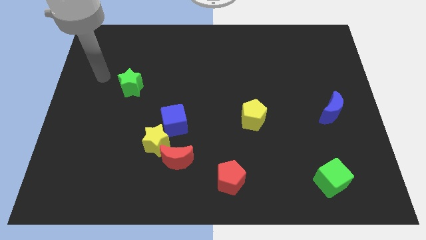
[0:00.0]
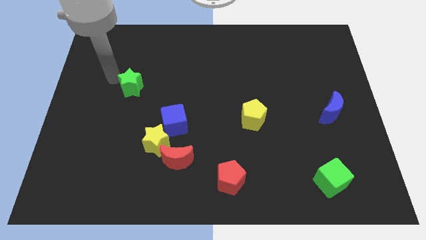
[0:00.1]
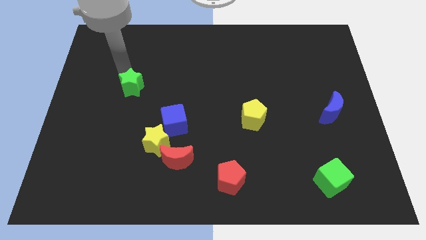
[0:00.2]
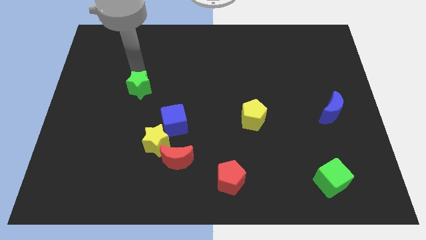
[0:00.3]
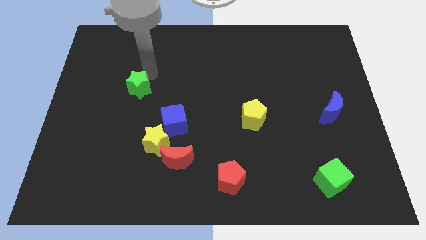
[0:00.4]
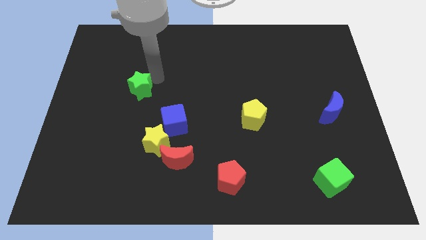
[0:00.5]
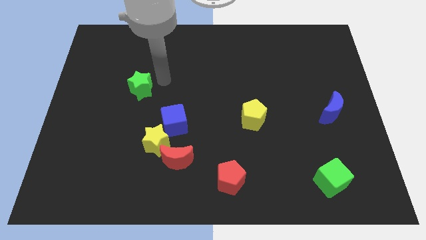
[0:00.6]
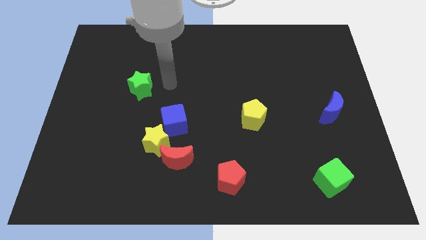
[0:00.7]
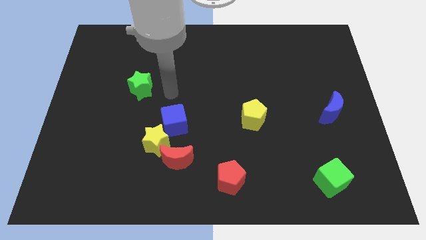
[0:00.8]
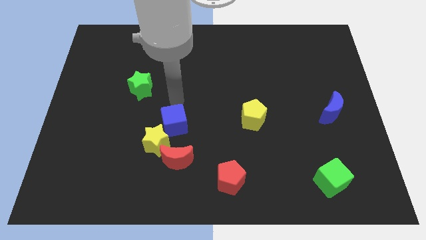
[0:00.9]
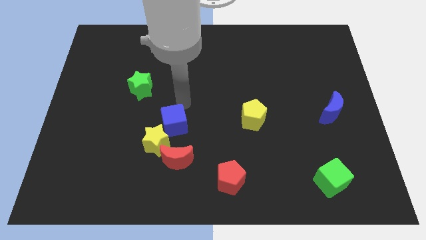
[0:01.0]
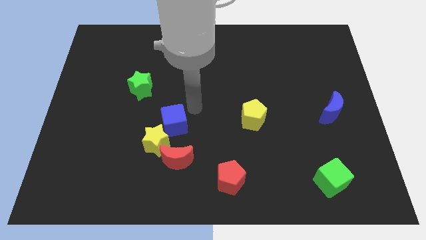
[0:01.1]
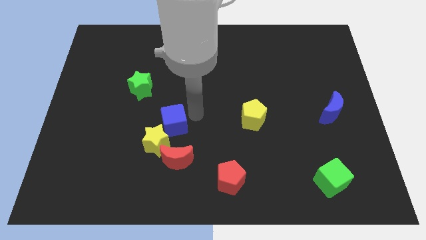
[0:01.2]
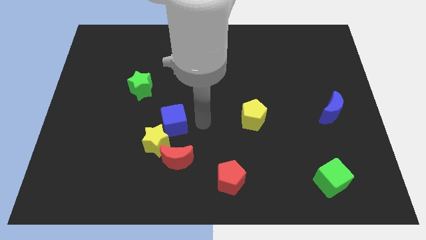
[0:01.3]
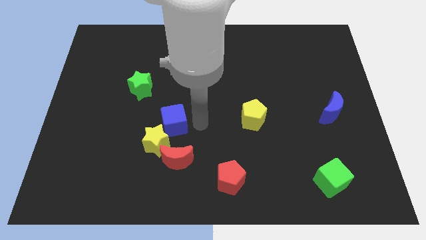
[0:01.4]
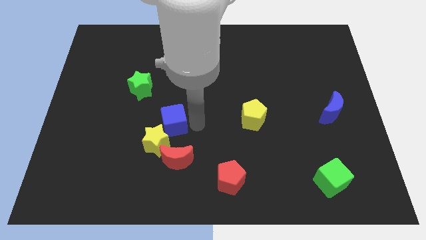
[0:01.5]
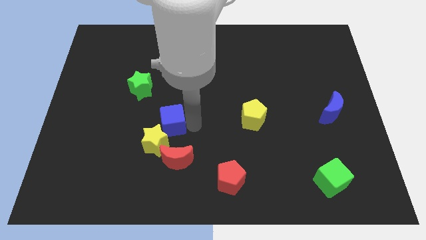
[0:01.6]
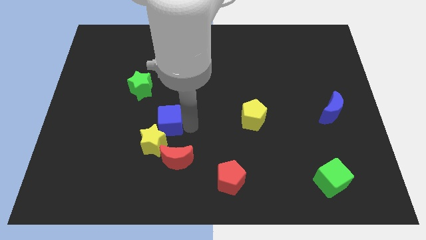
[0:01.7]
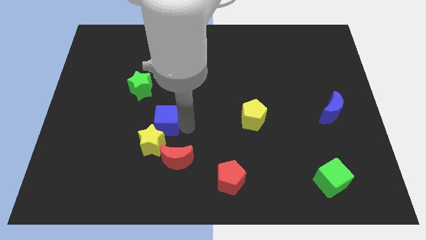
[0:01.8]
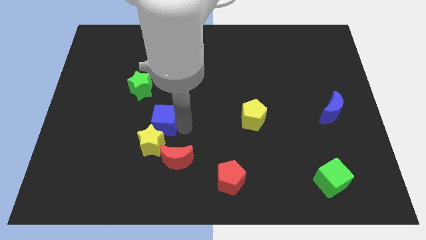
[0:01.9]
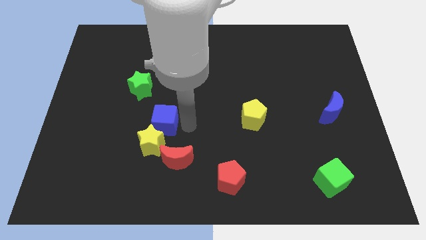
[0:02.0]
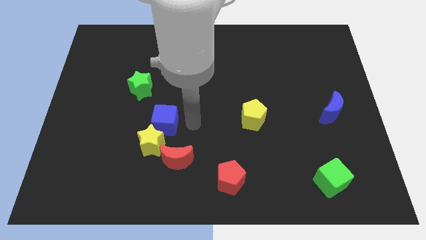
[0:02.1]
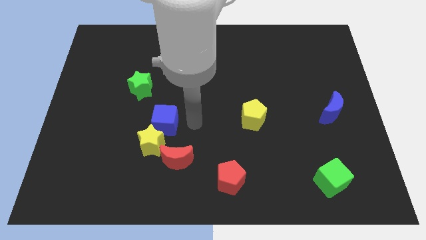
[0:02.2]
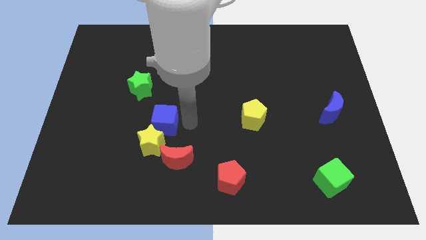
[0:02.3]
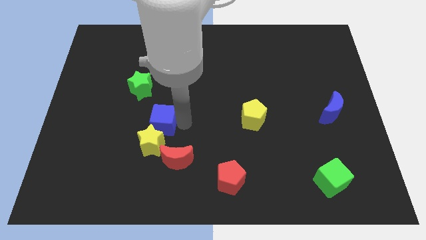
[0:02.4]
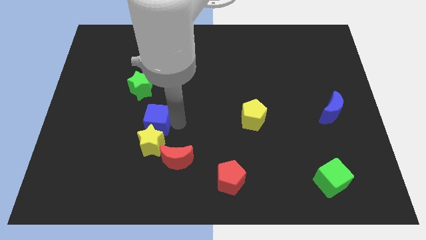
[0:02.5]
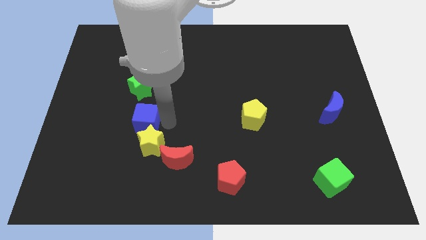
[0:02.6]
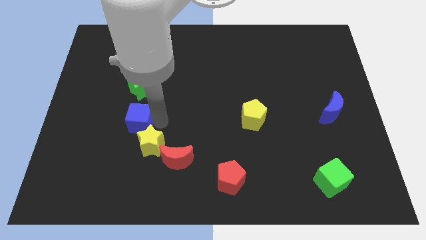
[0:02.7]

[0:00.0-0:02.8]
slightly move the blue cube to the left

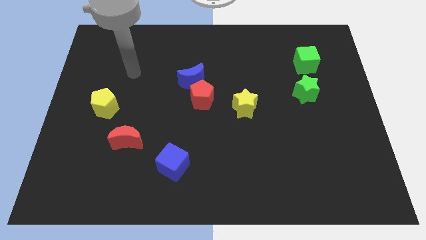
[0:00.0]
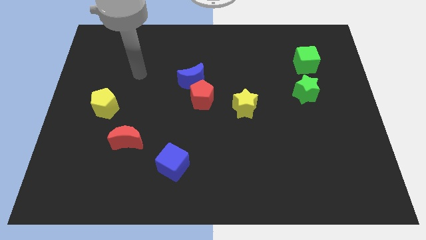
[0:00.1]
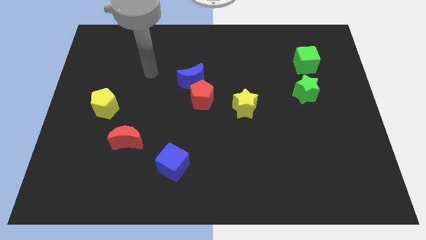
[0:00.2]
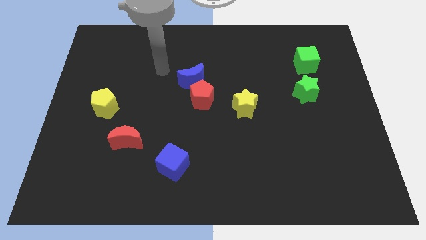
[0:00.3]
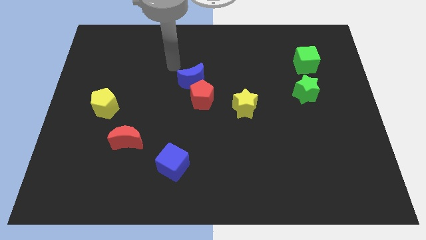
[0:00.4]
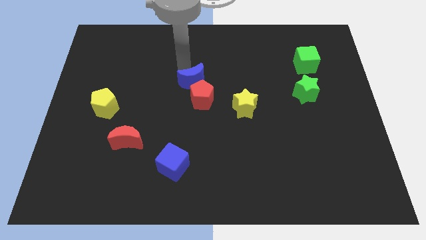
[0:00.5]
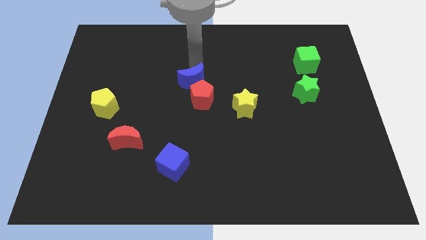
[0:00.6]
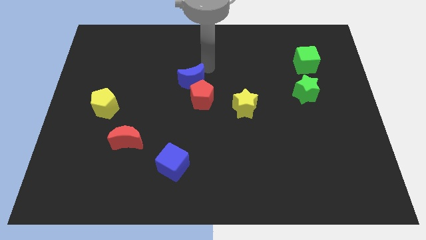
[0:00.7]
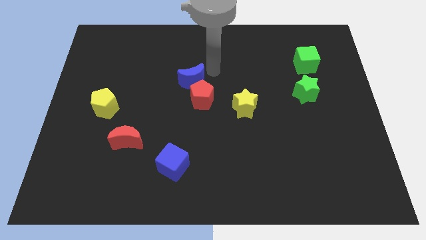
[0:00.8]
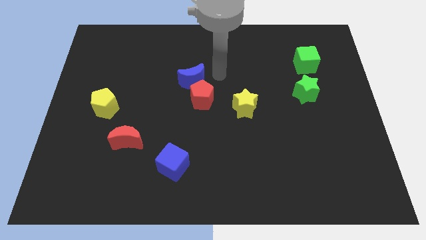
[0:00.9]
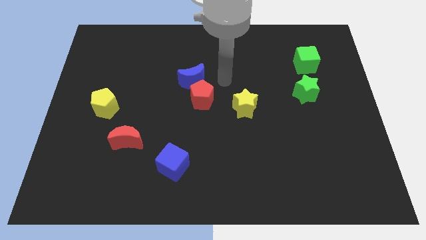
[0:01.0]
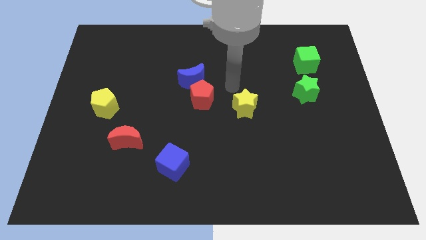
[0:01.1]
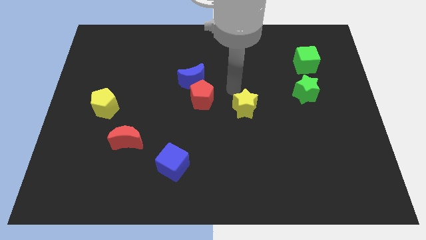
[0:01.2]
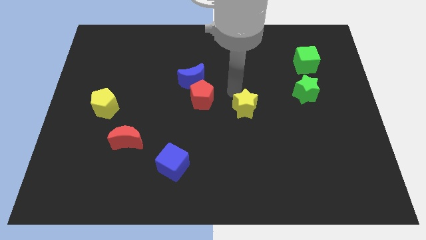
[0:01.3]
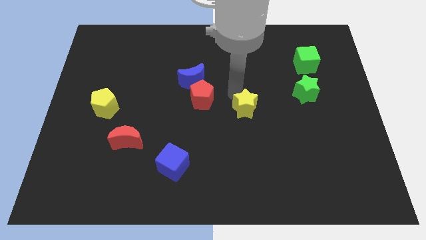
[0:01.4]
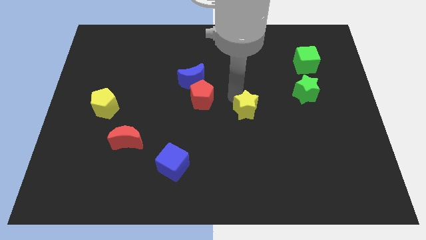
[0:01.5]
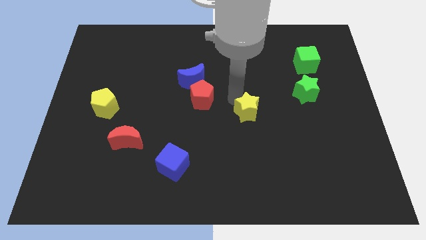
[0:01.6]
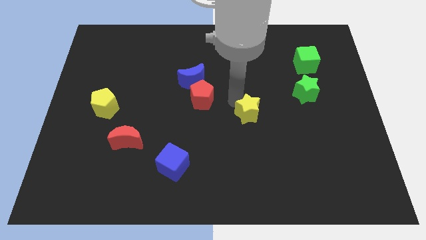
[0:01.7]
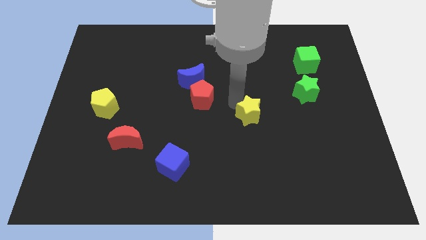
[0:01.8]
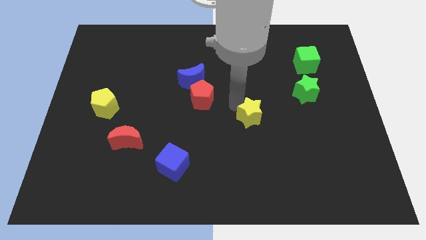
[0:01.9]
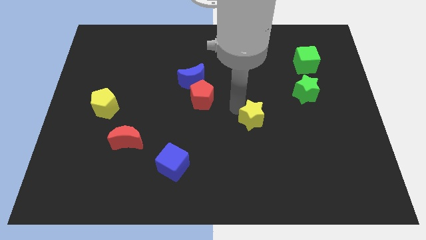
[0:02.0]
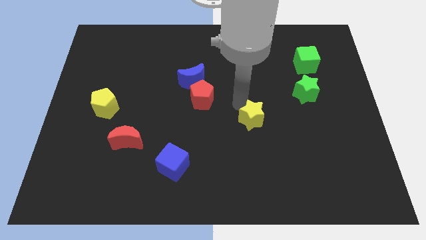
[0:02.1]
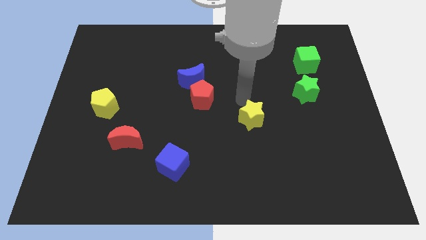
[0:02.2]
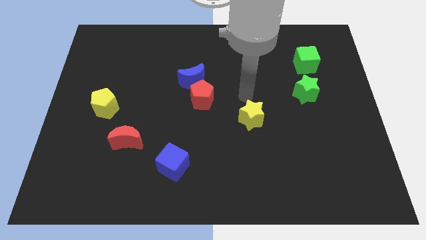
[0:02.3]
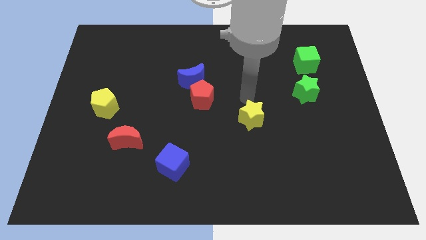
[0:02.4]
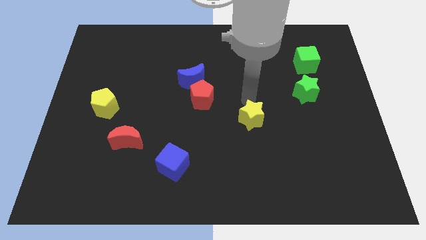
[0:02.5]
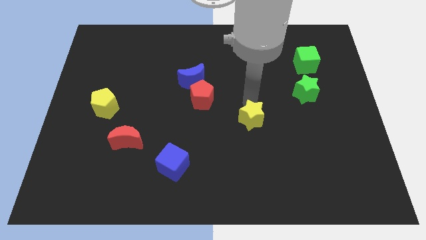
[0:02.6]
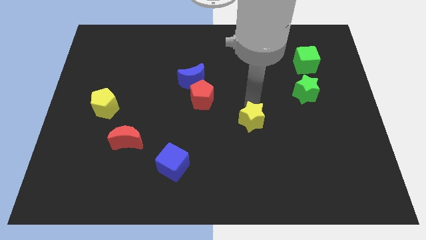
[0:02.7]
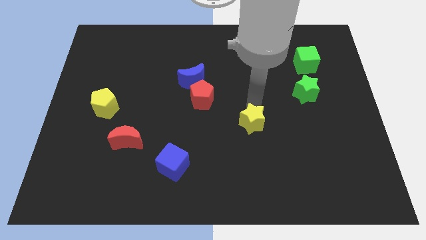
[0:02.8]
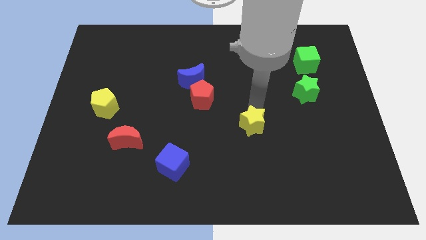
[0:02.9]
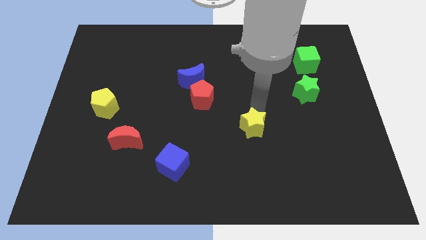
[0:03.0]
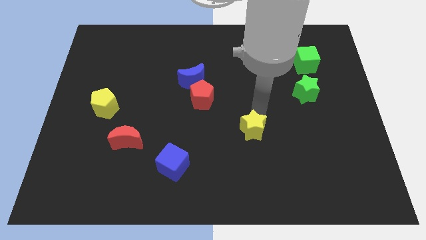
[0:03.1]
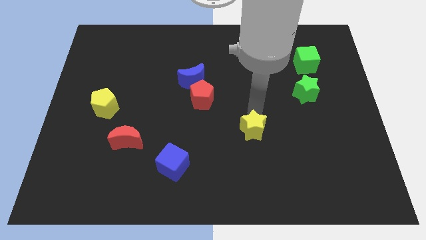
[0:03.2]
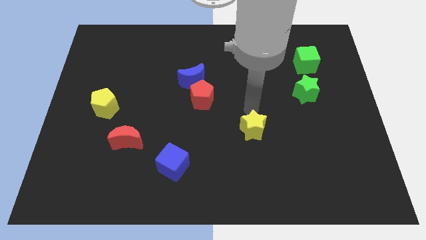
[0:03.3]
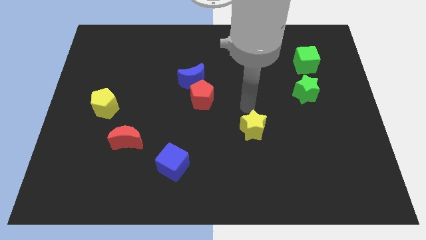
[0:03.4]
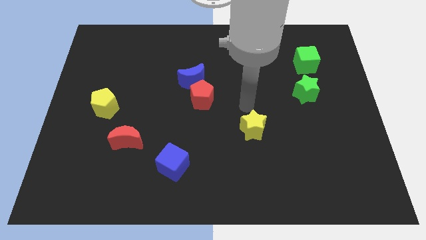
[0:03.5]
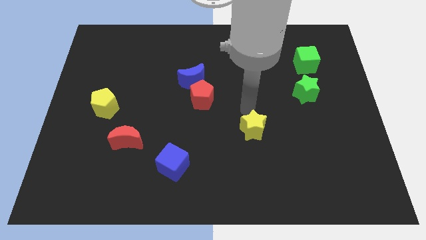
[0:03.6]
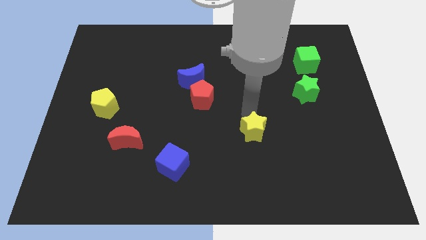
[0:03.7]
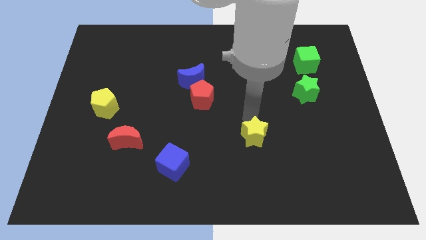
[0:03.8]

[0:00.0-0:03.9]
slide the yellow star down a little bit

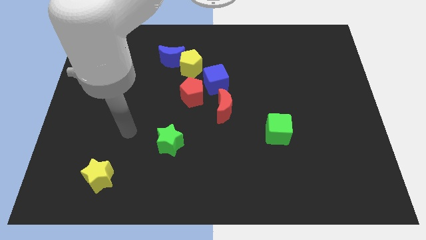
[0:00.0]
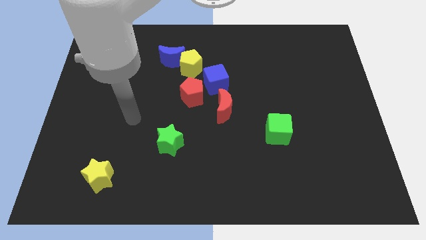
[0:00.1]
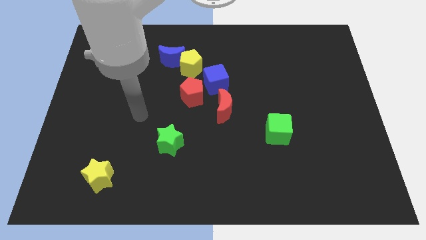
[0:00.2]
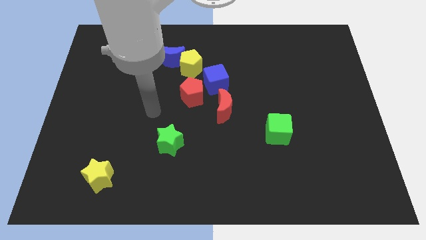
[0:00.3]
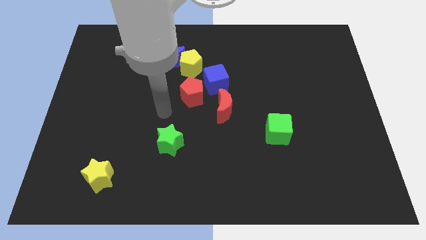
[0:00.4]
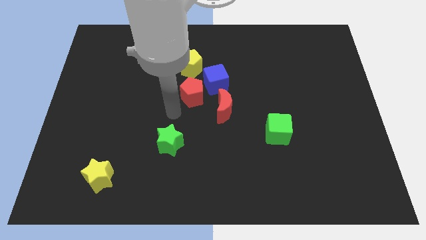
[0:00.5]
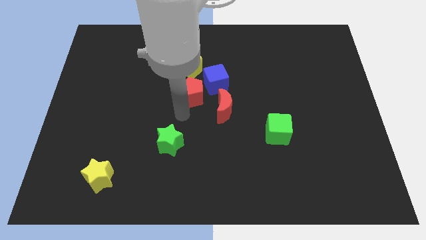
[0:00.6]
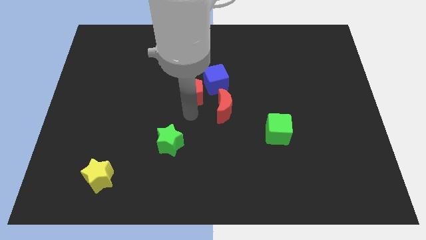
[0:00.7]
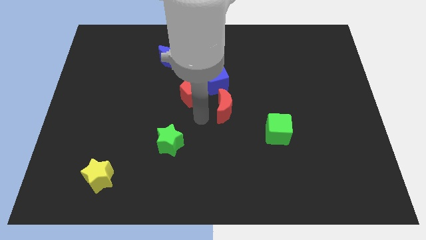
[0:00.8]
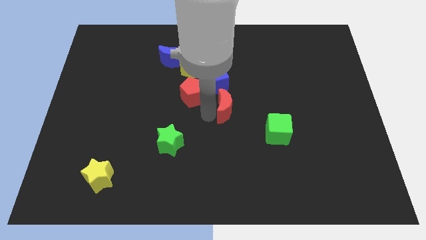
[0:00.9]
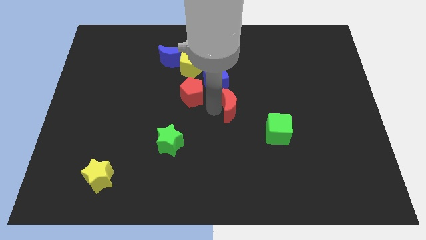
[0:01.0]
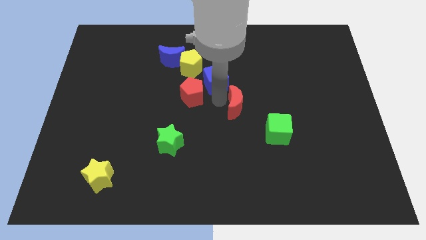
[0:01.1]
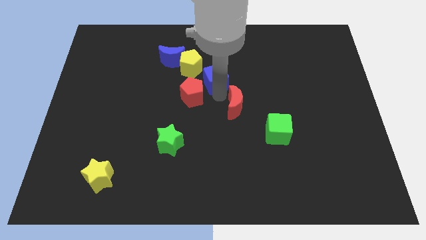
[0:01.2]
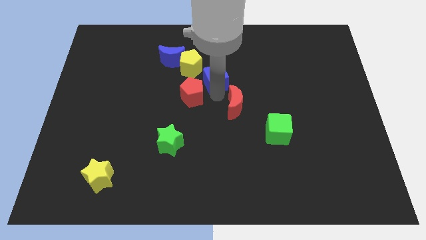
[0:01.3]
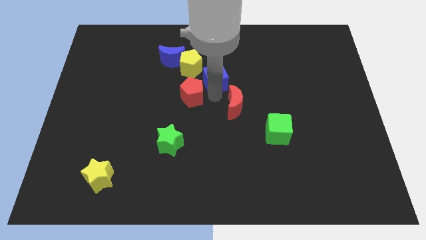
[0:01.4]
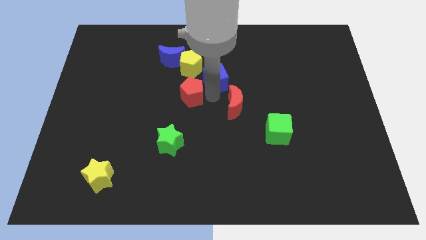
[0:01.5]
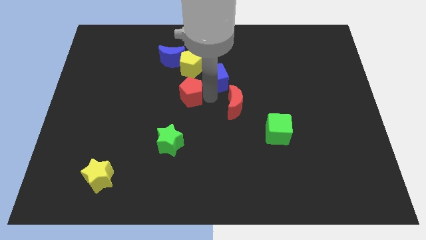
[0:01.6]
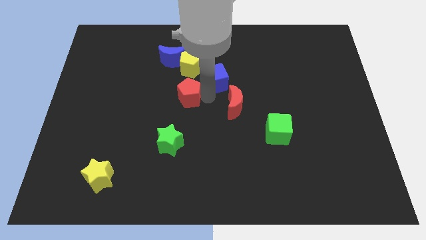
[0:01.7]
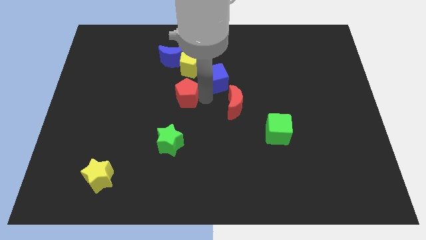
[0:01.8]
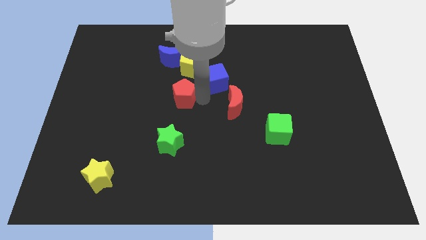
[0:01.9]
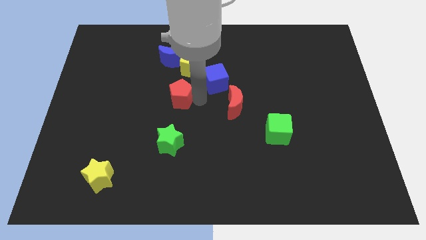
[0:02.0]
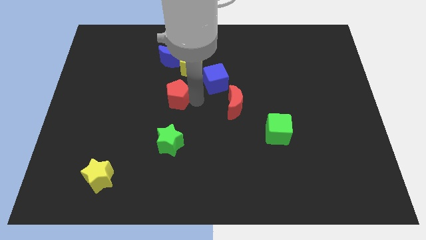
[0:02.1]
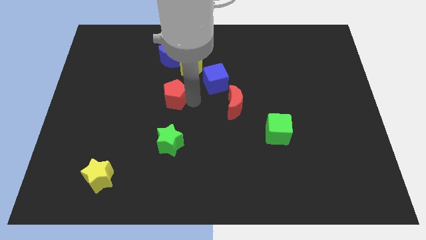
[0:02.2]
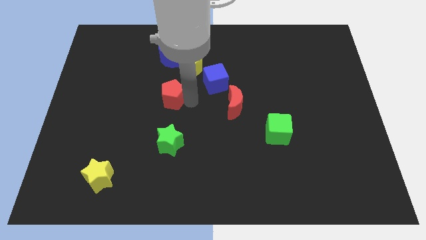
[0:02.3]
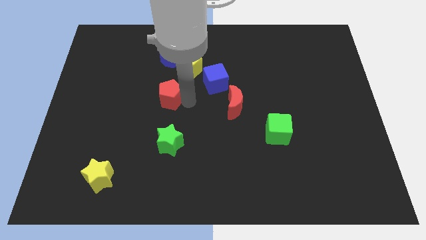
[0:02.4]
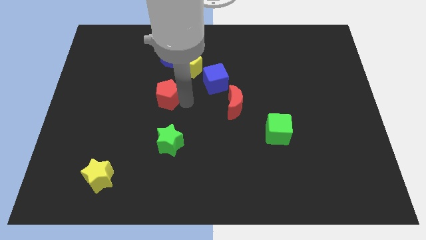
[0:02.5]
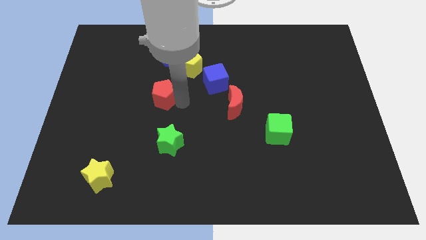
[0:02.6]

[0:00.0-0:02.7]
slide the red pentagon left a little bit
